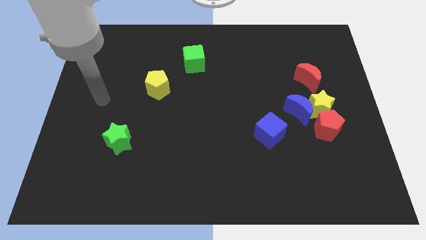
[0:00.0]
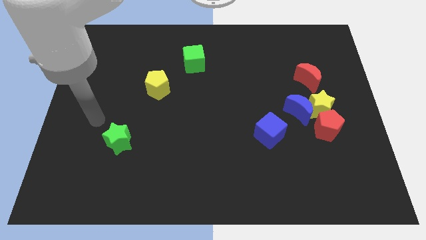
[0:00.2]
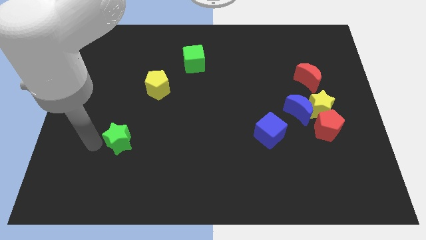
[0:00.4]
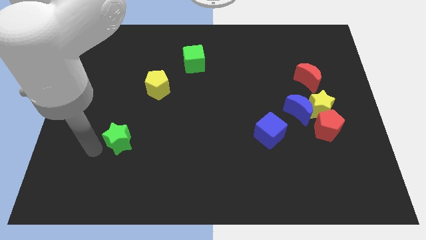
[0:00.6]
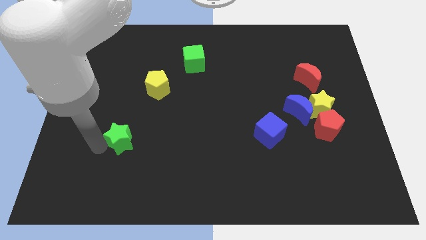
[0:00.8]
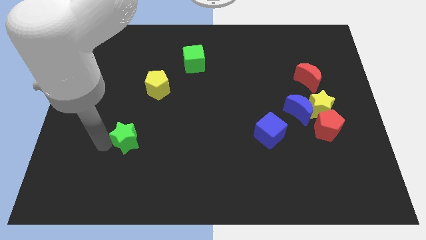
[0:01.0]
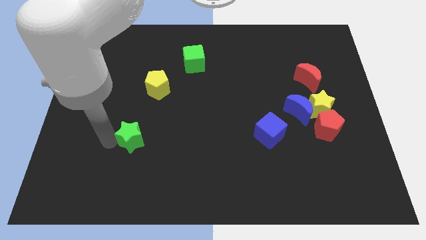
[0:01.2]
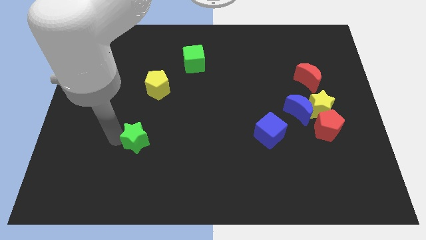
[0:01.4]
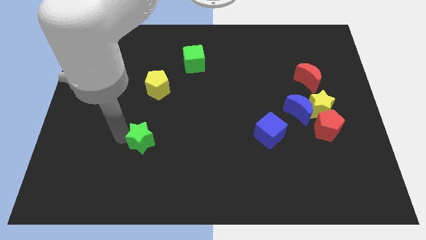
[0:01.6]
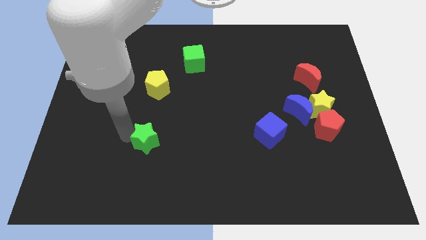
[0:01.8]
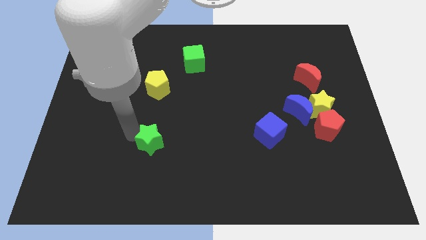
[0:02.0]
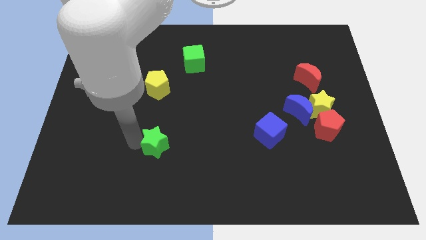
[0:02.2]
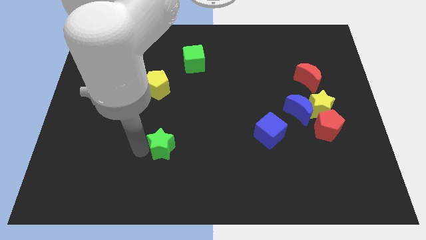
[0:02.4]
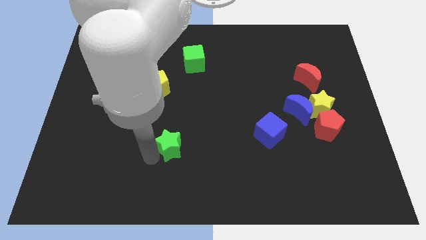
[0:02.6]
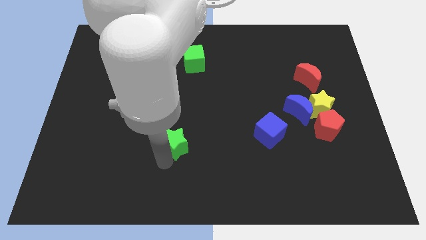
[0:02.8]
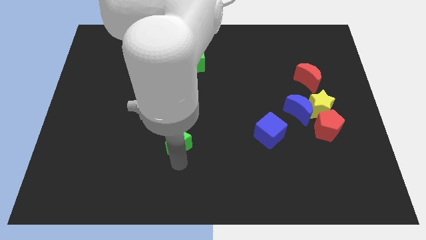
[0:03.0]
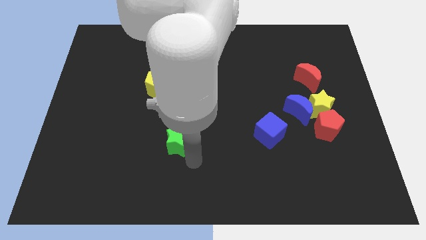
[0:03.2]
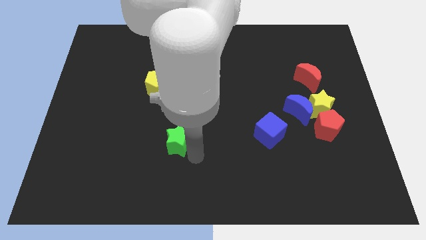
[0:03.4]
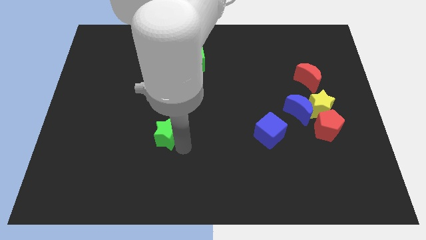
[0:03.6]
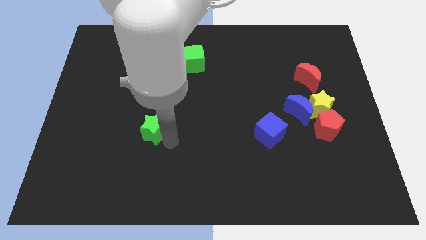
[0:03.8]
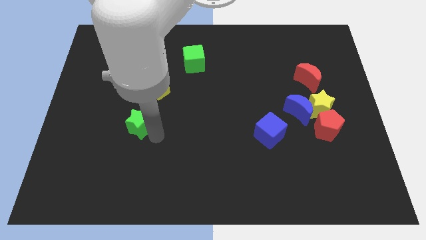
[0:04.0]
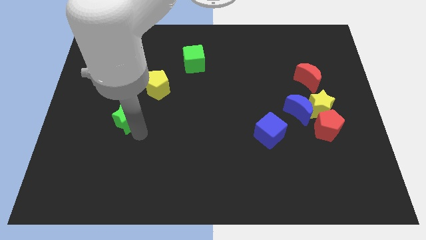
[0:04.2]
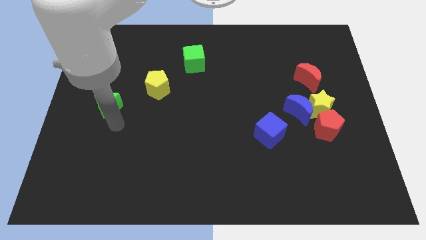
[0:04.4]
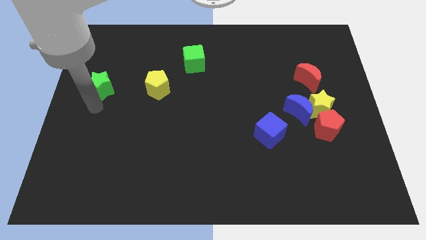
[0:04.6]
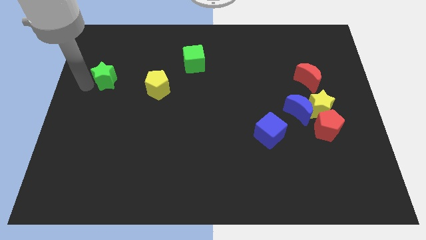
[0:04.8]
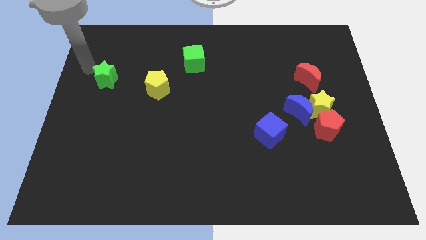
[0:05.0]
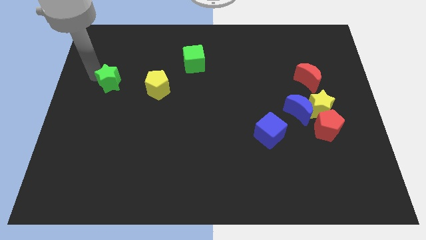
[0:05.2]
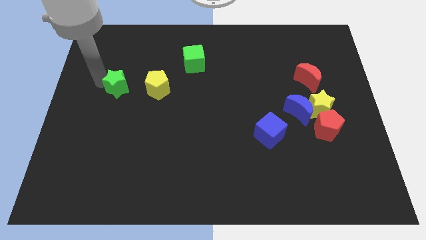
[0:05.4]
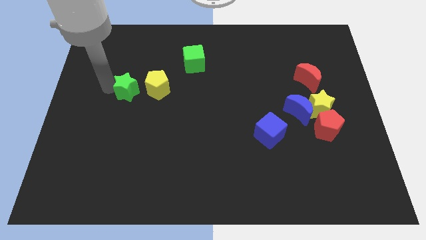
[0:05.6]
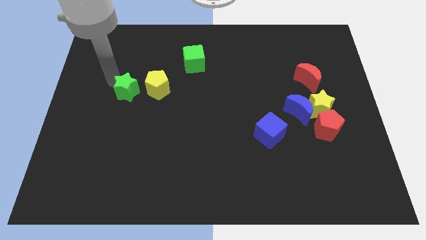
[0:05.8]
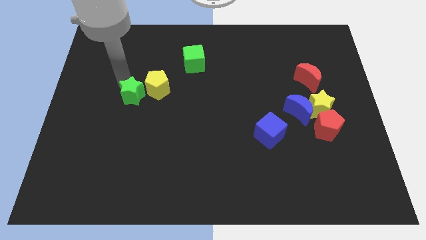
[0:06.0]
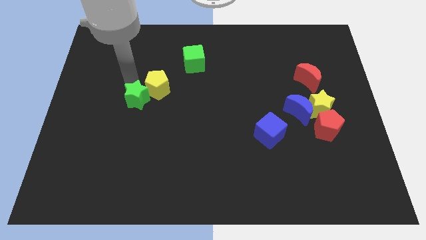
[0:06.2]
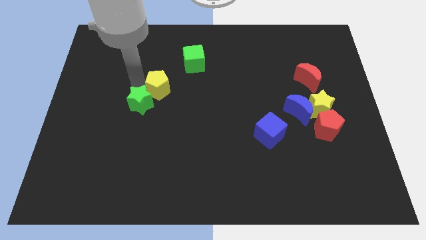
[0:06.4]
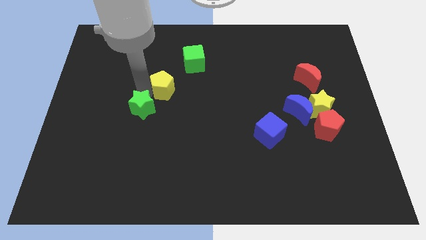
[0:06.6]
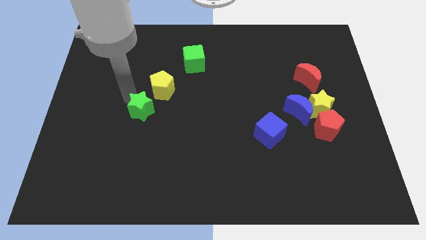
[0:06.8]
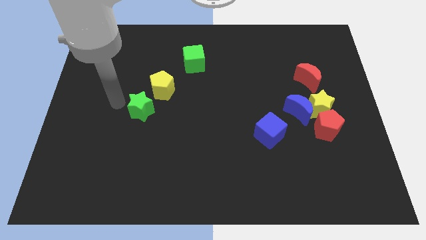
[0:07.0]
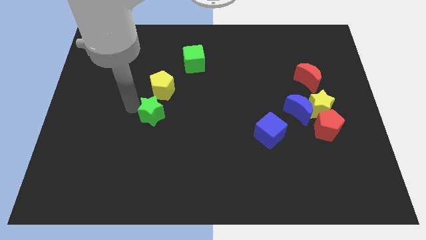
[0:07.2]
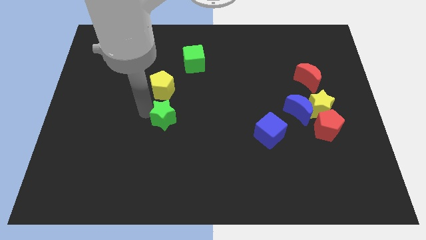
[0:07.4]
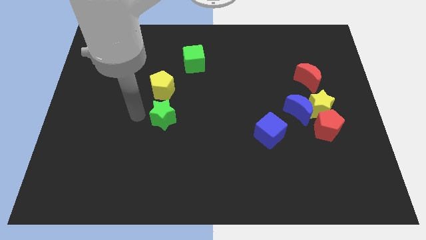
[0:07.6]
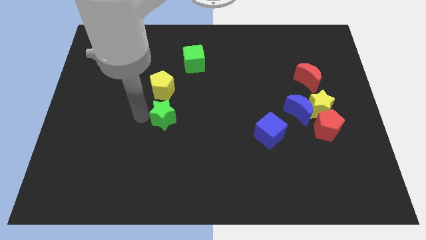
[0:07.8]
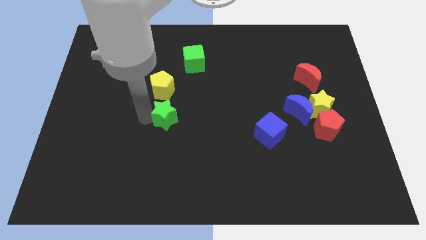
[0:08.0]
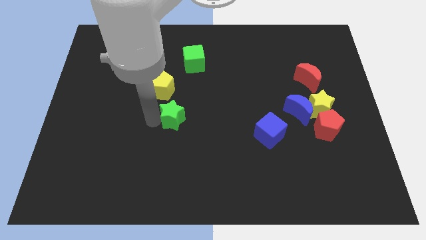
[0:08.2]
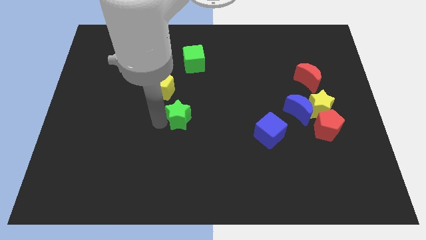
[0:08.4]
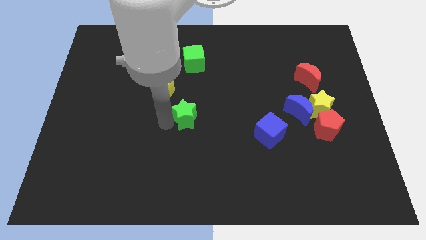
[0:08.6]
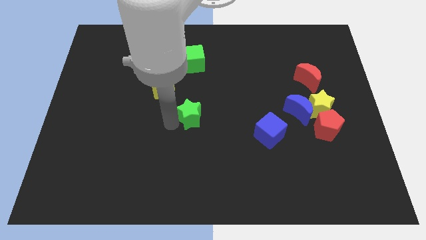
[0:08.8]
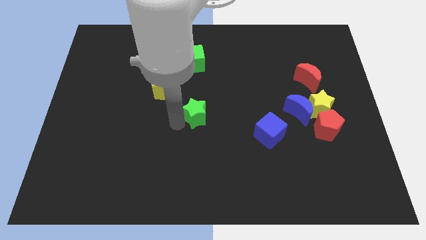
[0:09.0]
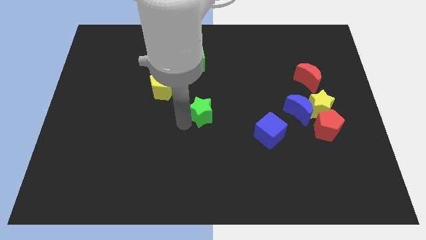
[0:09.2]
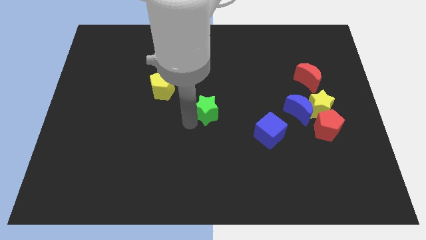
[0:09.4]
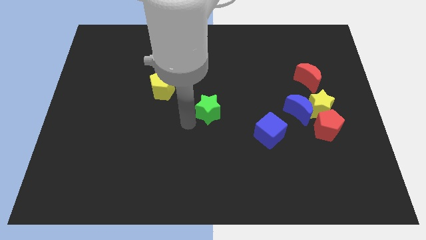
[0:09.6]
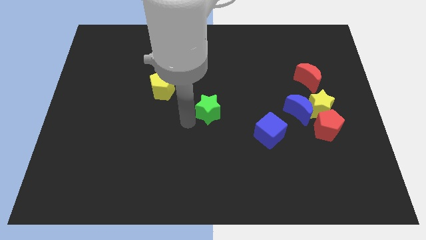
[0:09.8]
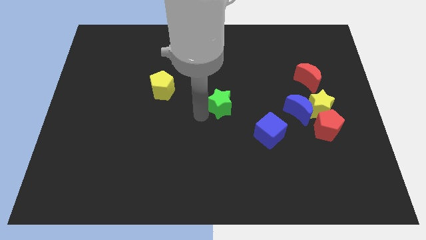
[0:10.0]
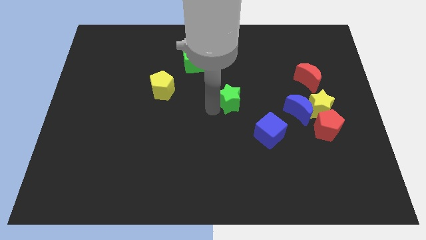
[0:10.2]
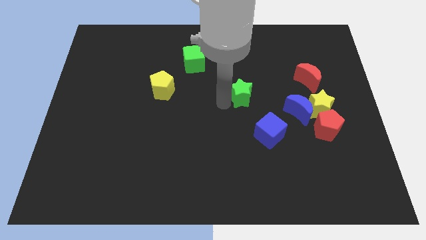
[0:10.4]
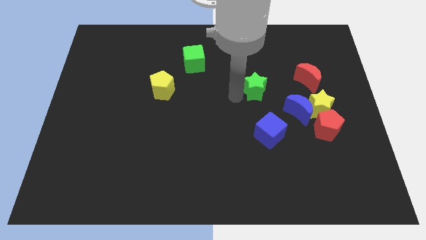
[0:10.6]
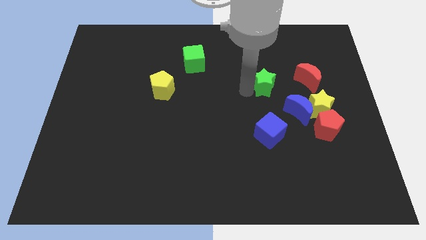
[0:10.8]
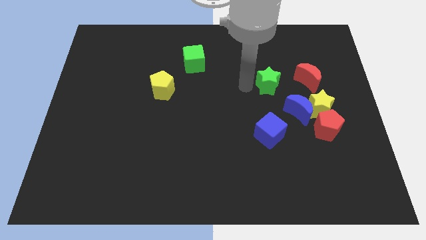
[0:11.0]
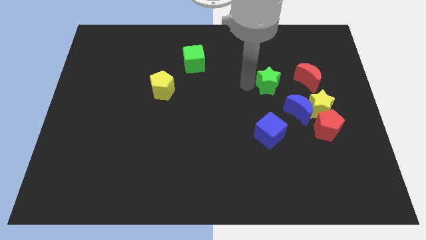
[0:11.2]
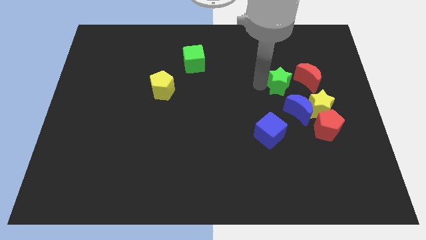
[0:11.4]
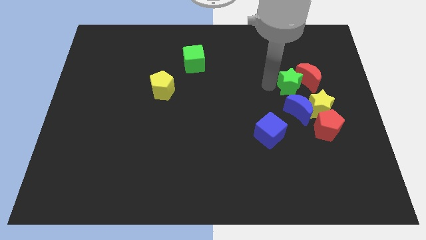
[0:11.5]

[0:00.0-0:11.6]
put the green star close to the red moon
